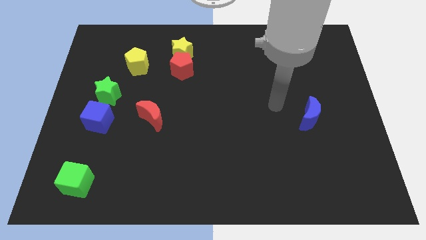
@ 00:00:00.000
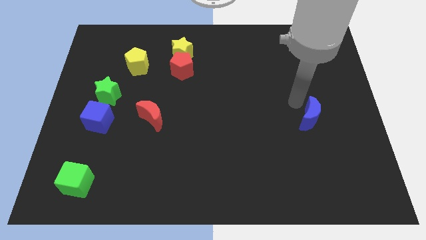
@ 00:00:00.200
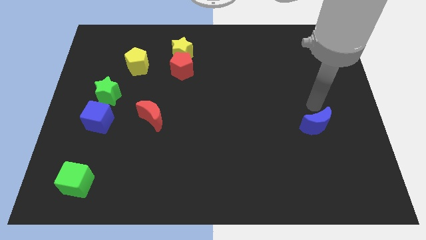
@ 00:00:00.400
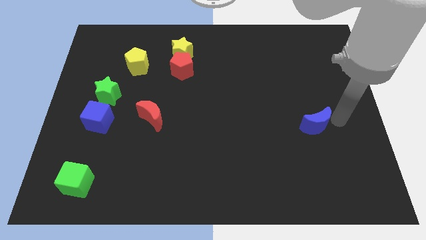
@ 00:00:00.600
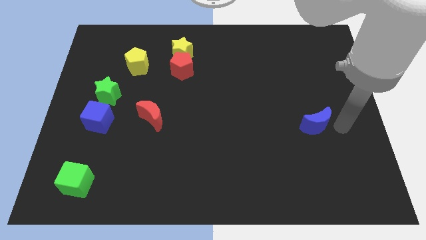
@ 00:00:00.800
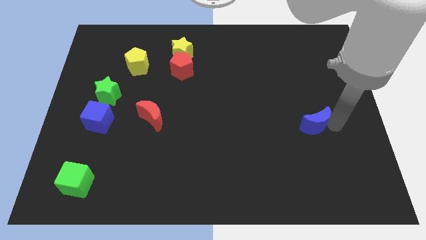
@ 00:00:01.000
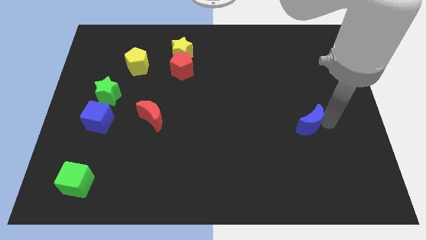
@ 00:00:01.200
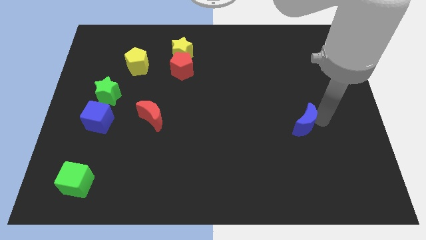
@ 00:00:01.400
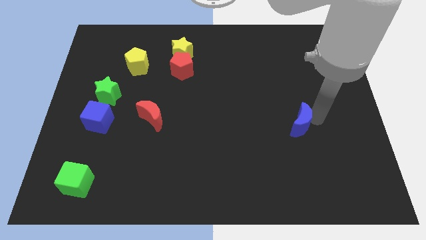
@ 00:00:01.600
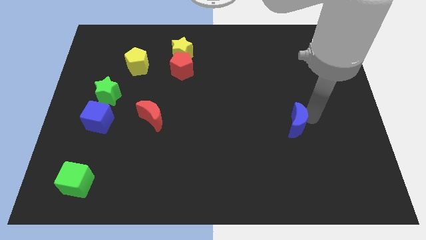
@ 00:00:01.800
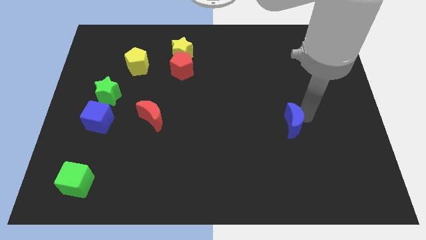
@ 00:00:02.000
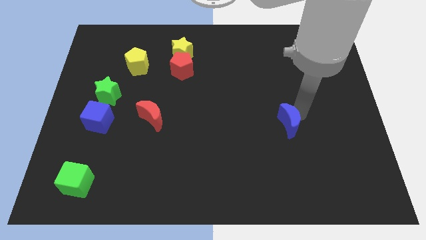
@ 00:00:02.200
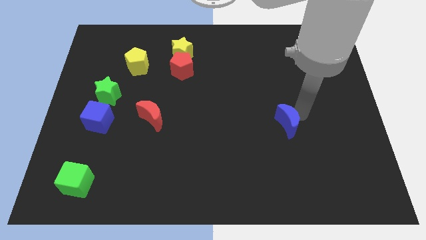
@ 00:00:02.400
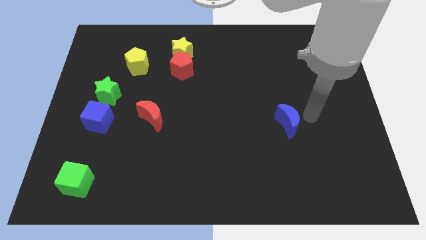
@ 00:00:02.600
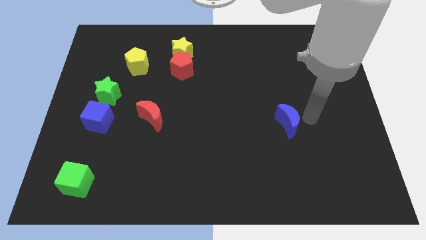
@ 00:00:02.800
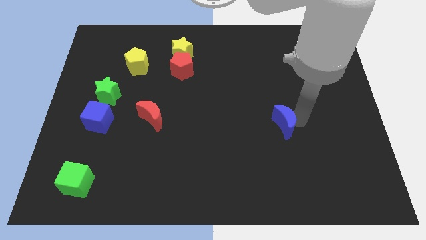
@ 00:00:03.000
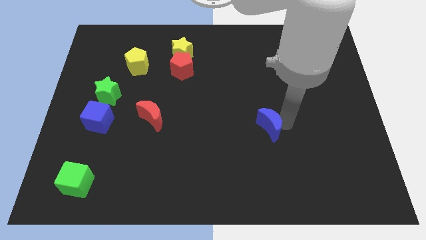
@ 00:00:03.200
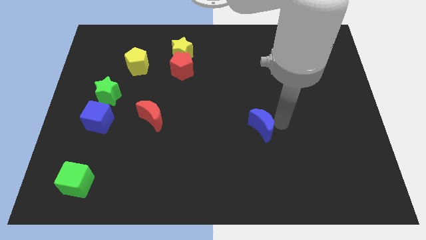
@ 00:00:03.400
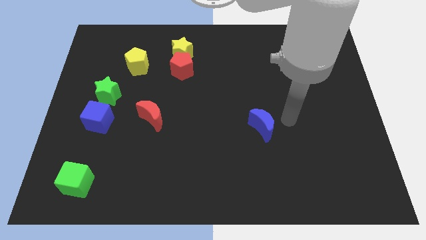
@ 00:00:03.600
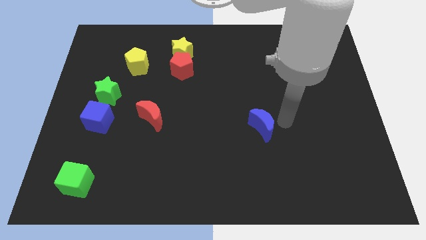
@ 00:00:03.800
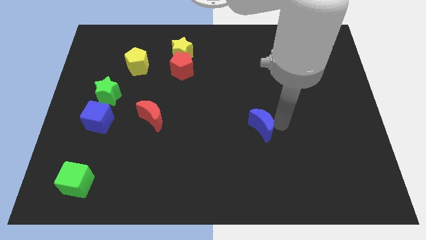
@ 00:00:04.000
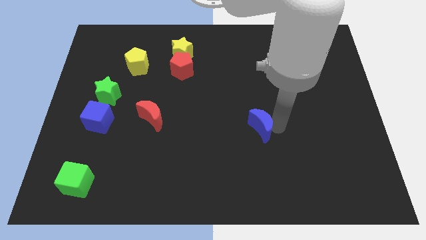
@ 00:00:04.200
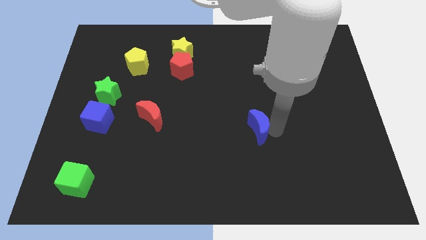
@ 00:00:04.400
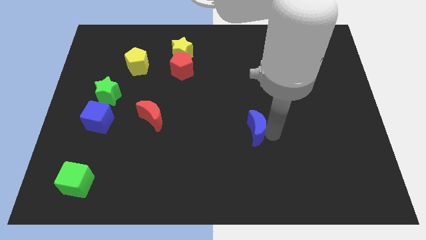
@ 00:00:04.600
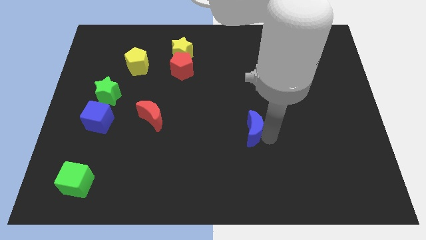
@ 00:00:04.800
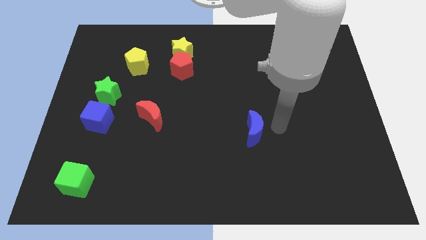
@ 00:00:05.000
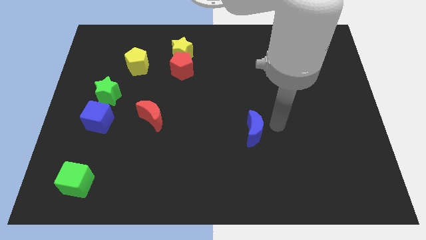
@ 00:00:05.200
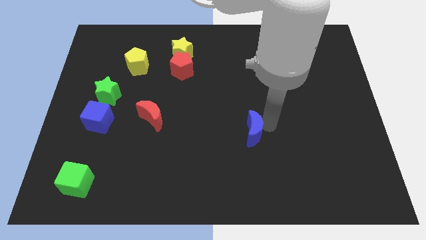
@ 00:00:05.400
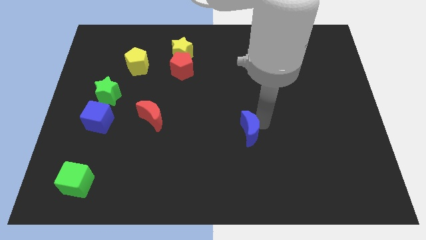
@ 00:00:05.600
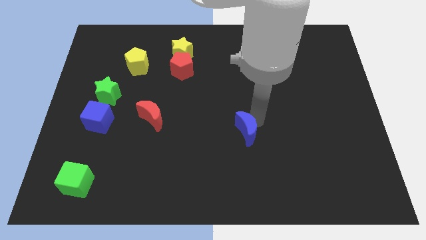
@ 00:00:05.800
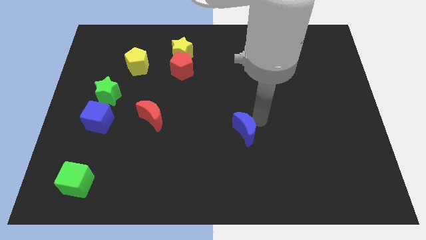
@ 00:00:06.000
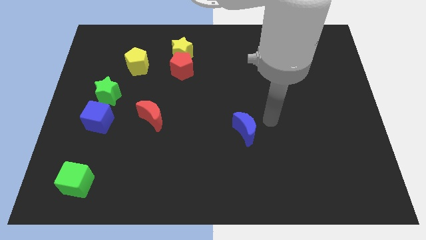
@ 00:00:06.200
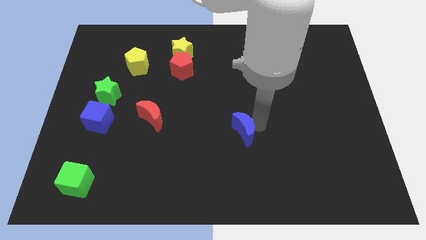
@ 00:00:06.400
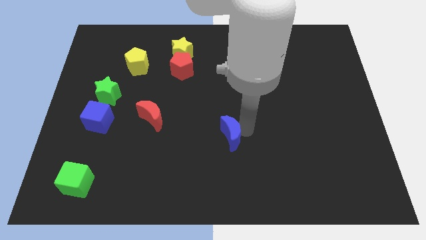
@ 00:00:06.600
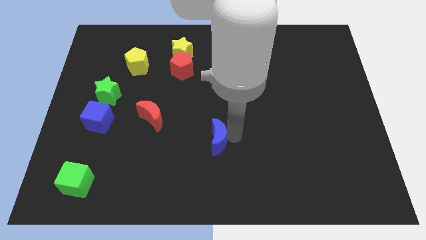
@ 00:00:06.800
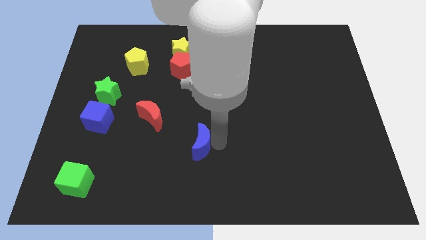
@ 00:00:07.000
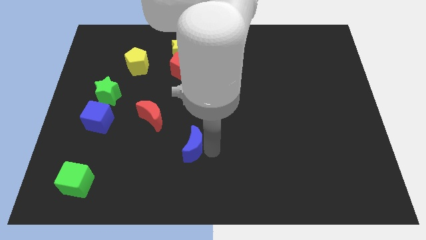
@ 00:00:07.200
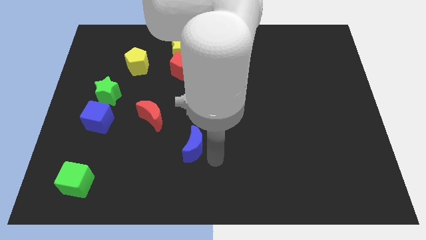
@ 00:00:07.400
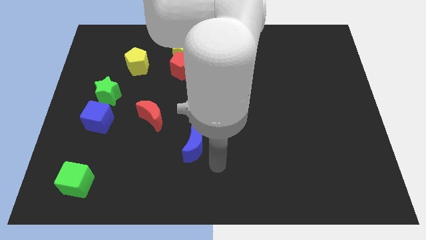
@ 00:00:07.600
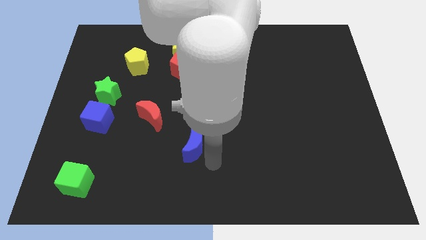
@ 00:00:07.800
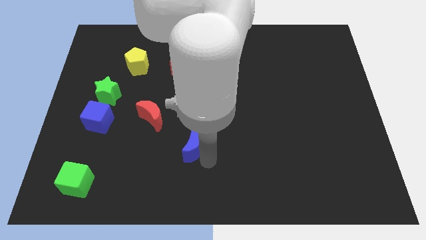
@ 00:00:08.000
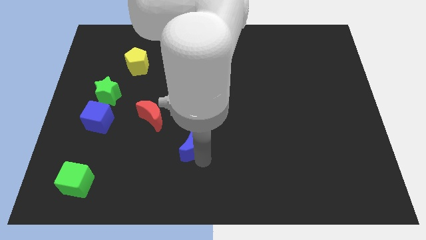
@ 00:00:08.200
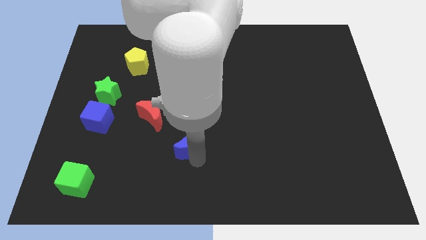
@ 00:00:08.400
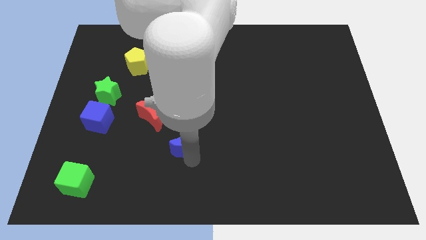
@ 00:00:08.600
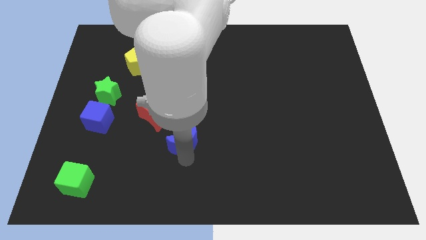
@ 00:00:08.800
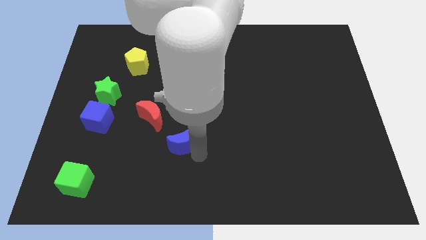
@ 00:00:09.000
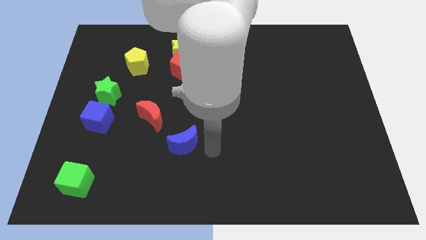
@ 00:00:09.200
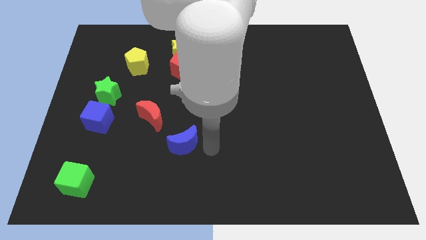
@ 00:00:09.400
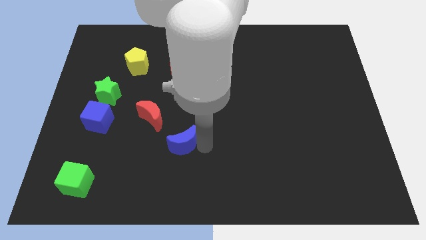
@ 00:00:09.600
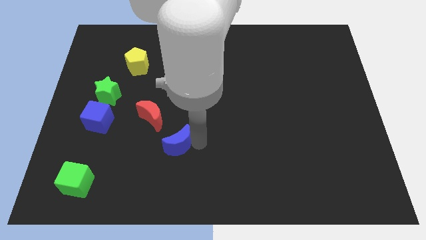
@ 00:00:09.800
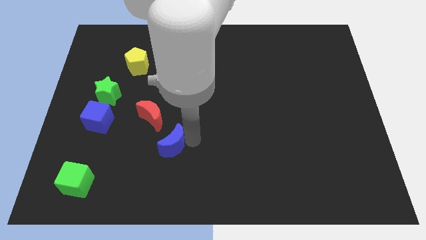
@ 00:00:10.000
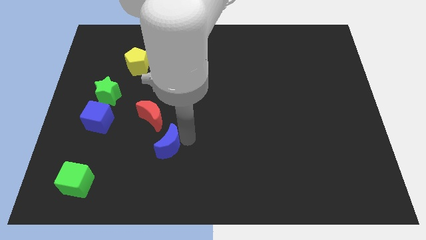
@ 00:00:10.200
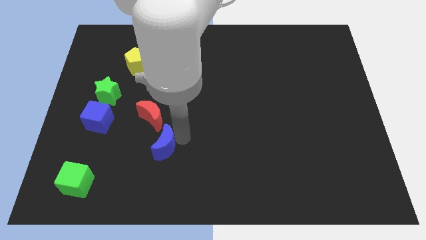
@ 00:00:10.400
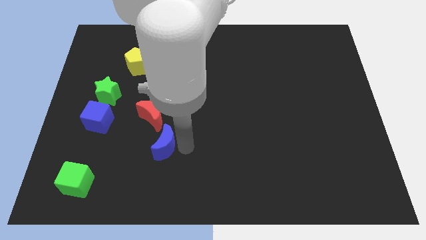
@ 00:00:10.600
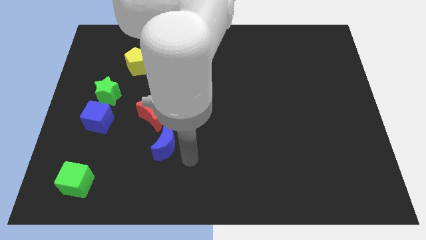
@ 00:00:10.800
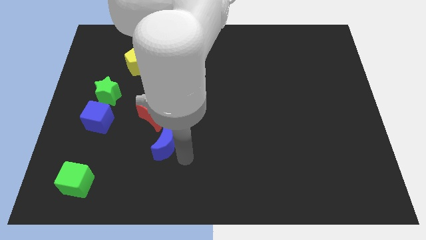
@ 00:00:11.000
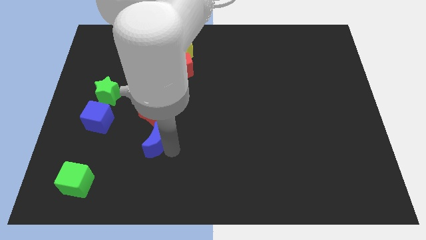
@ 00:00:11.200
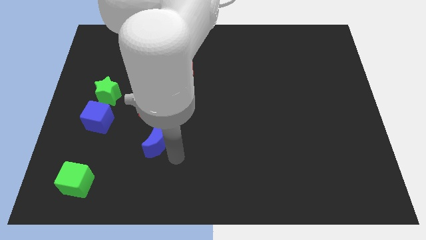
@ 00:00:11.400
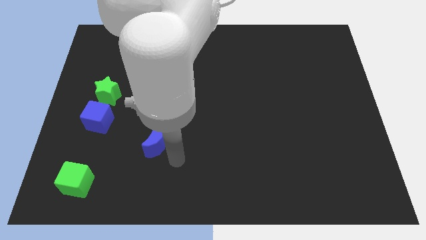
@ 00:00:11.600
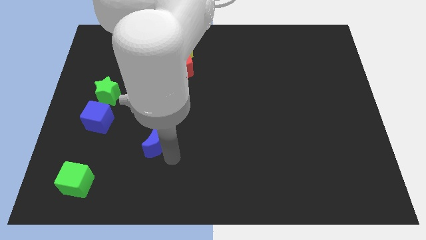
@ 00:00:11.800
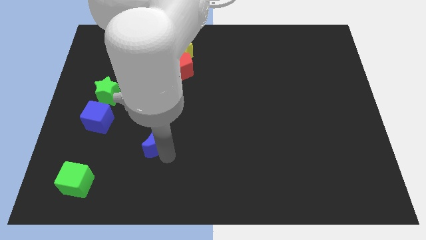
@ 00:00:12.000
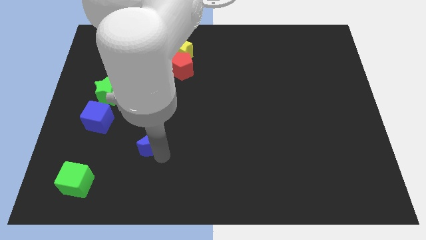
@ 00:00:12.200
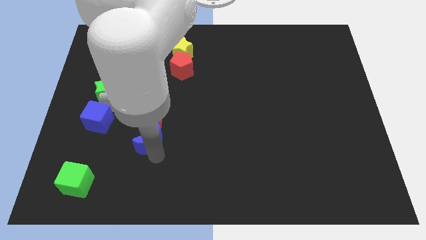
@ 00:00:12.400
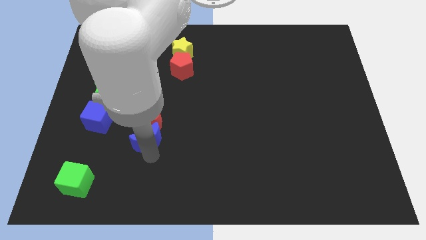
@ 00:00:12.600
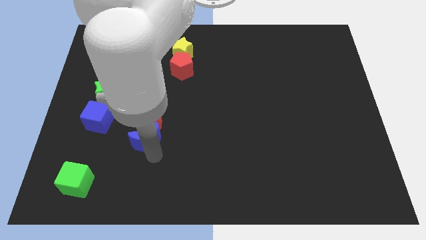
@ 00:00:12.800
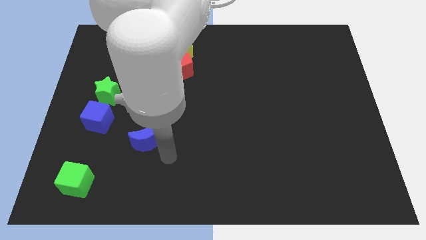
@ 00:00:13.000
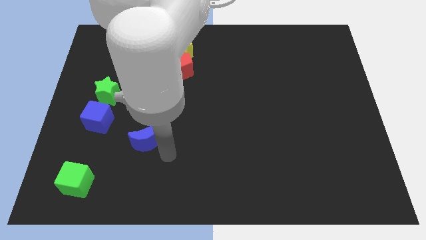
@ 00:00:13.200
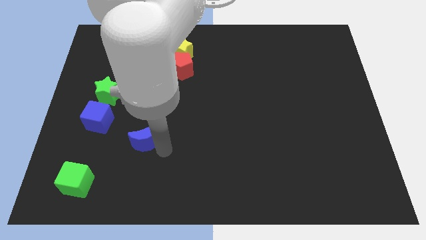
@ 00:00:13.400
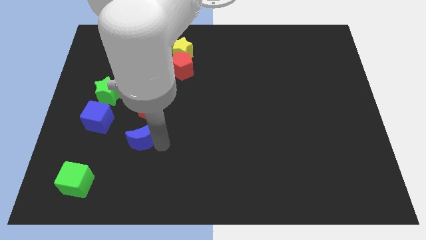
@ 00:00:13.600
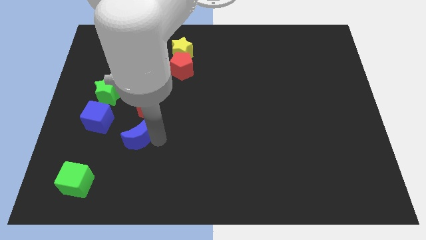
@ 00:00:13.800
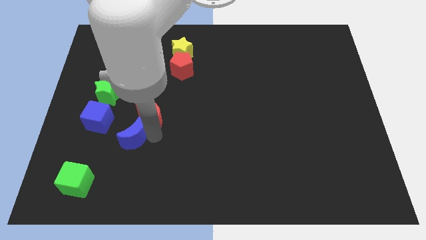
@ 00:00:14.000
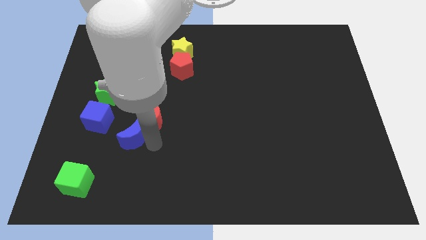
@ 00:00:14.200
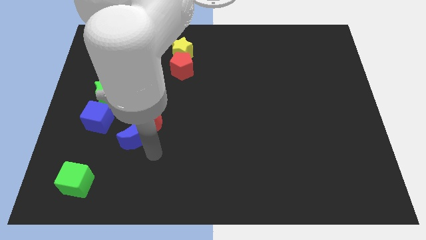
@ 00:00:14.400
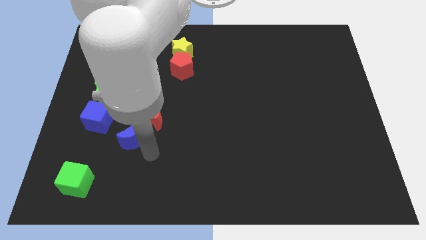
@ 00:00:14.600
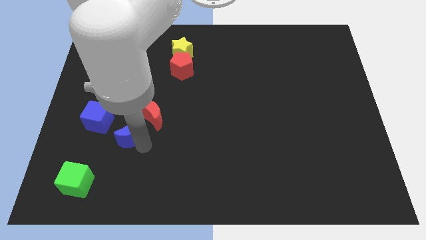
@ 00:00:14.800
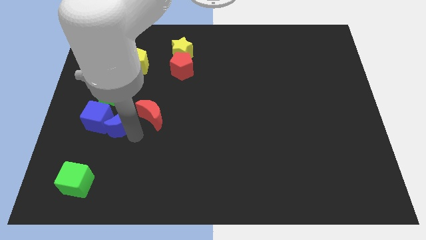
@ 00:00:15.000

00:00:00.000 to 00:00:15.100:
slide the blue moon next to the blue cube
